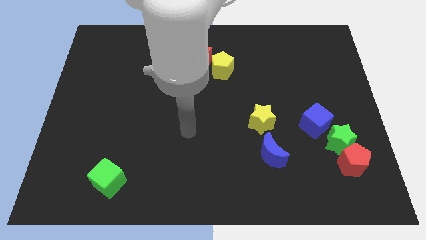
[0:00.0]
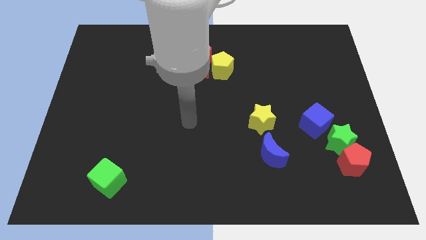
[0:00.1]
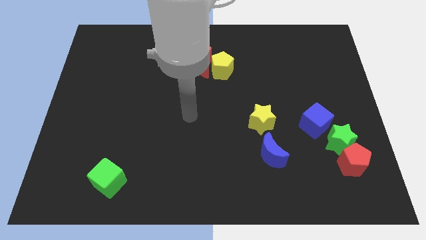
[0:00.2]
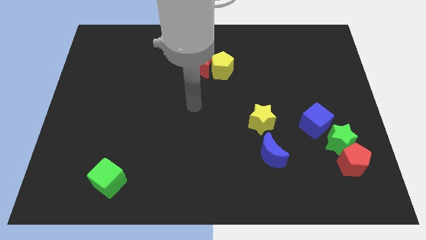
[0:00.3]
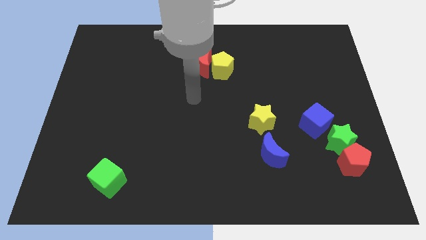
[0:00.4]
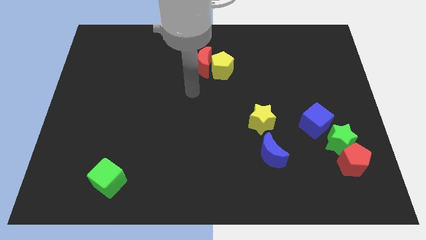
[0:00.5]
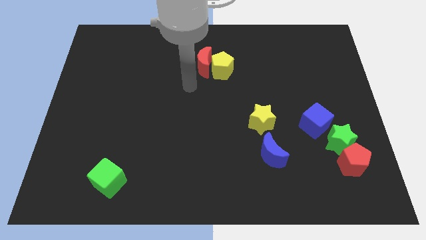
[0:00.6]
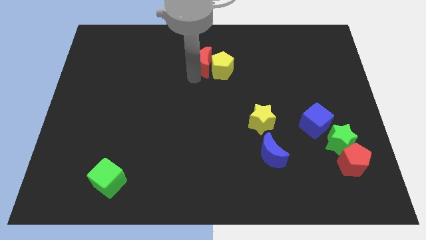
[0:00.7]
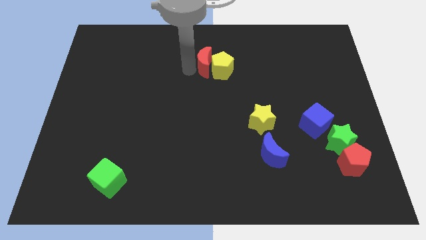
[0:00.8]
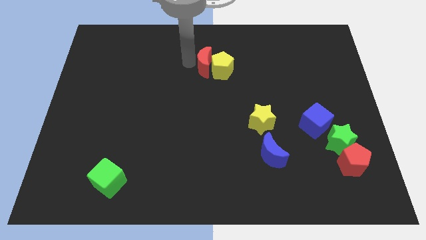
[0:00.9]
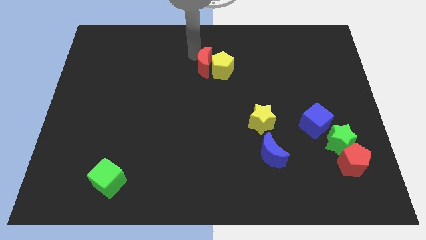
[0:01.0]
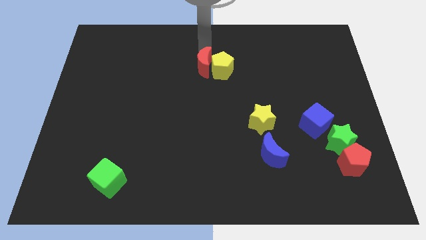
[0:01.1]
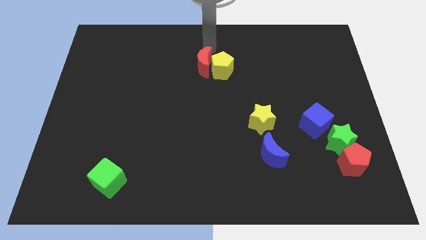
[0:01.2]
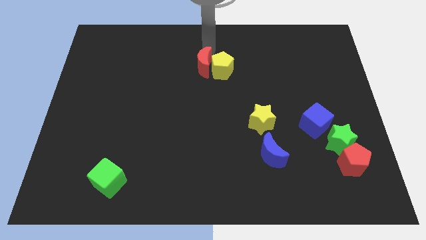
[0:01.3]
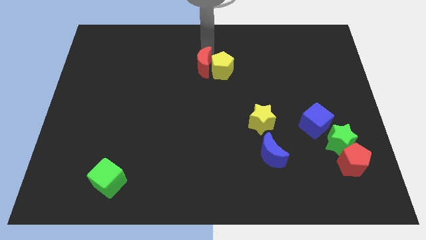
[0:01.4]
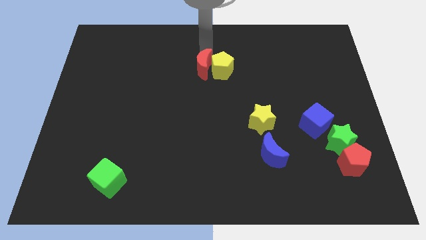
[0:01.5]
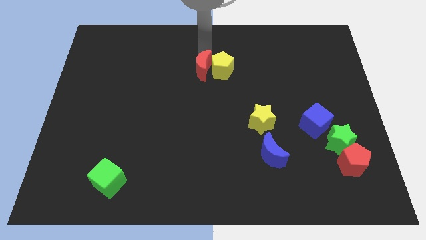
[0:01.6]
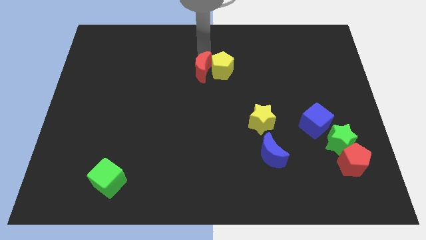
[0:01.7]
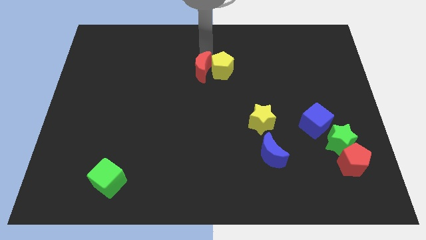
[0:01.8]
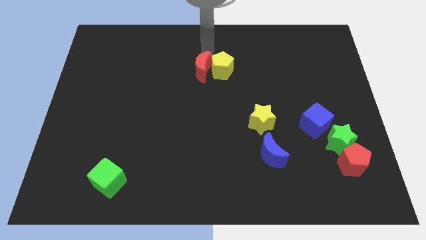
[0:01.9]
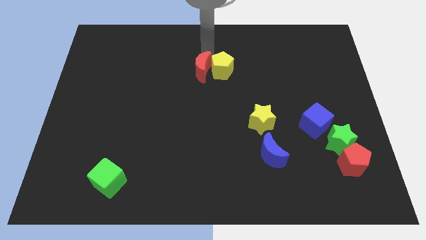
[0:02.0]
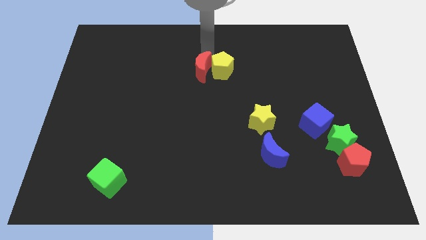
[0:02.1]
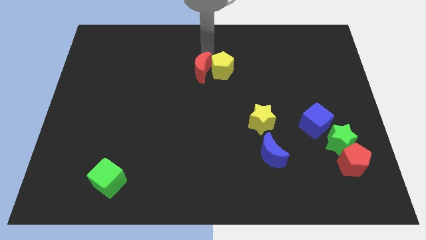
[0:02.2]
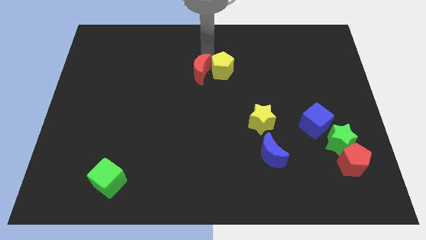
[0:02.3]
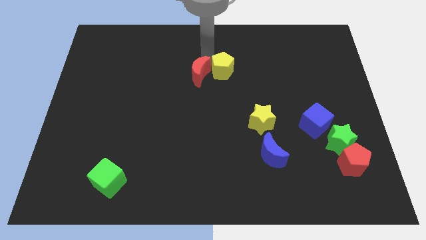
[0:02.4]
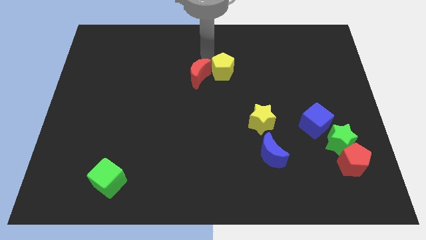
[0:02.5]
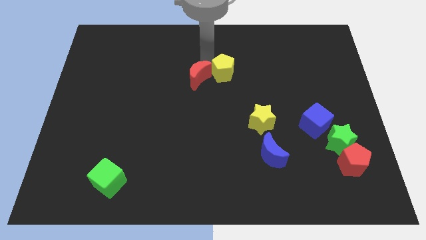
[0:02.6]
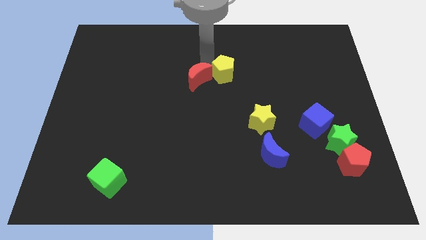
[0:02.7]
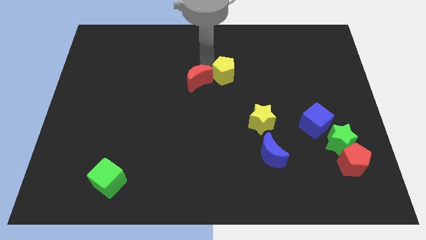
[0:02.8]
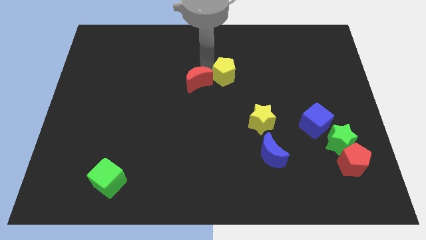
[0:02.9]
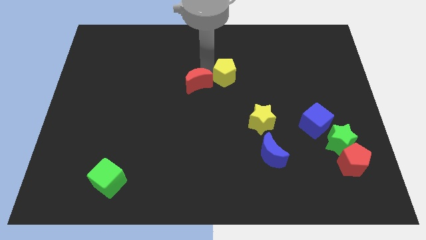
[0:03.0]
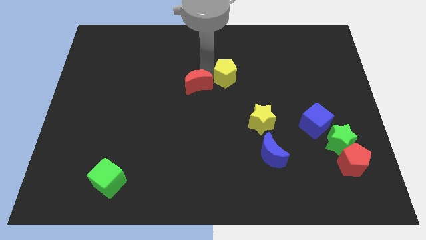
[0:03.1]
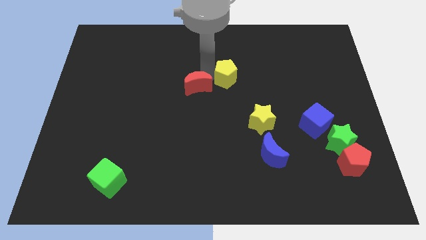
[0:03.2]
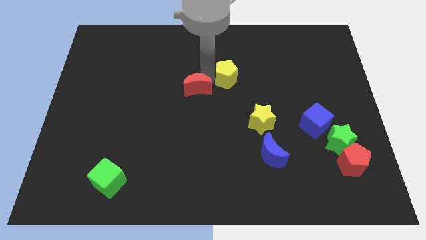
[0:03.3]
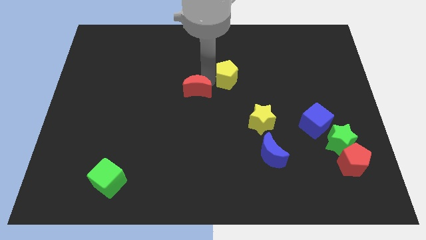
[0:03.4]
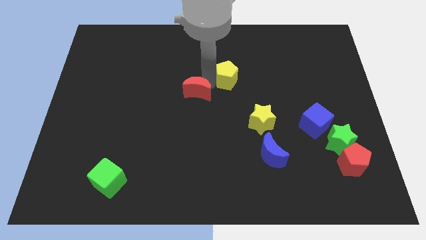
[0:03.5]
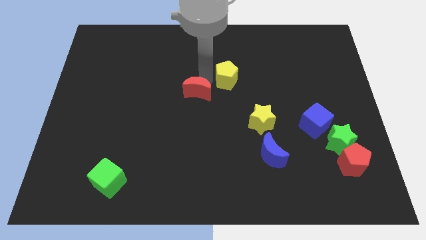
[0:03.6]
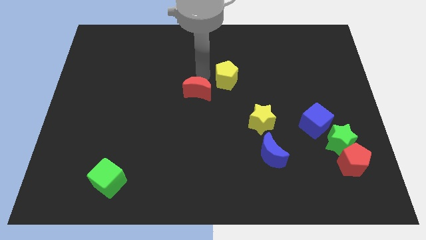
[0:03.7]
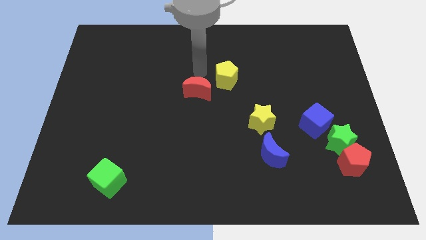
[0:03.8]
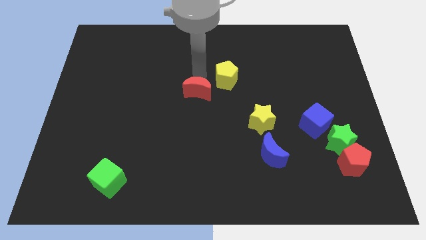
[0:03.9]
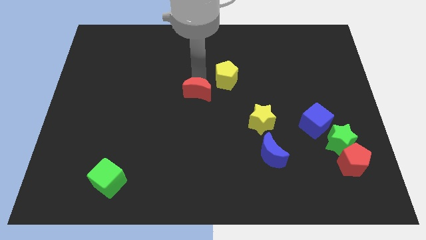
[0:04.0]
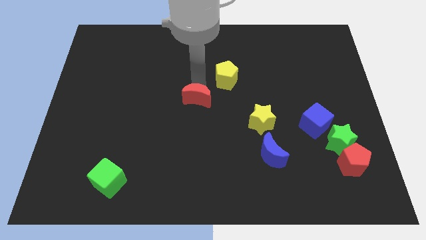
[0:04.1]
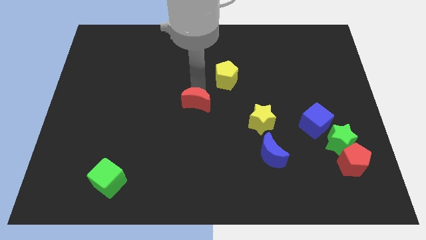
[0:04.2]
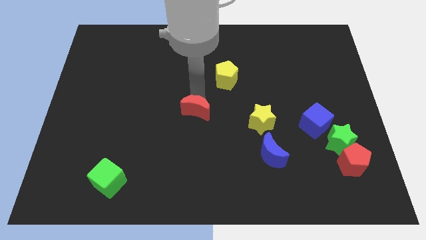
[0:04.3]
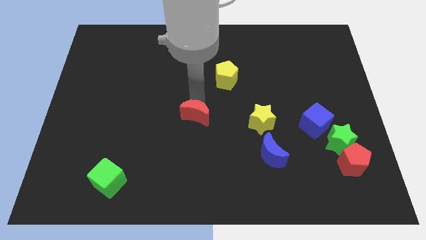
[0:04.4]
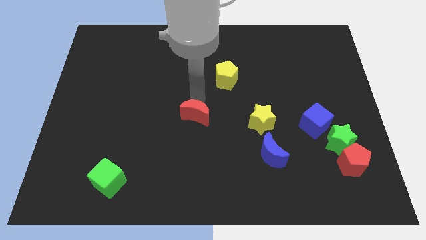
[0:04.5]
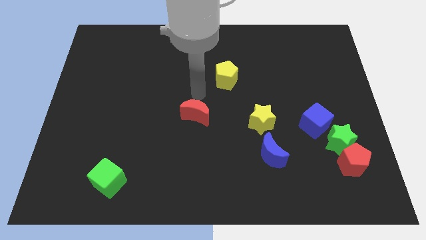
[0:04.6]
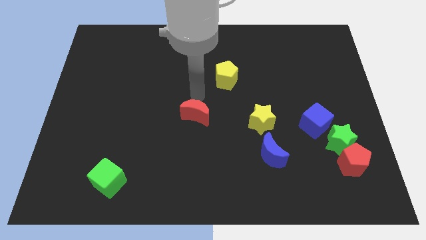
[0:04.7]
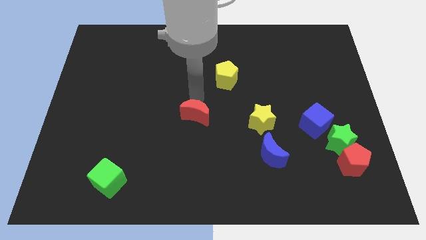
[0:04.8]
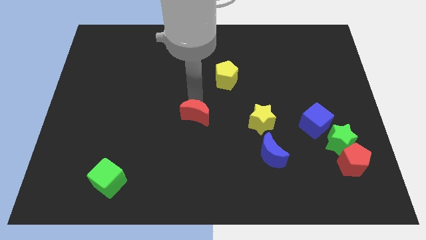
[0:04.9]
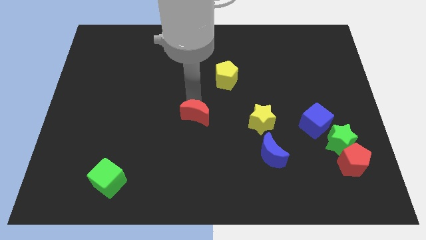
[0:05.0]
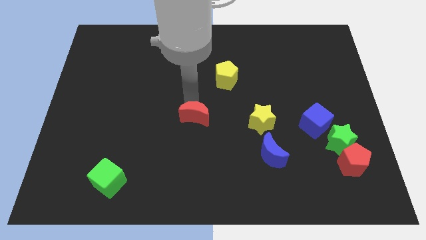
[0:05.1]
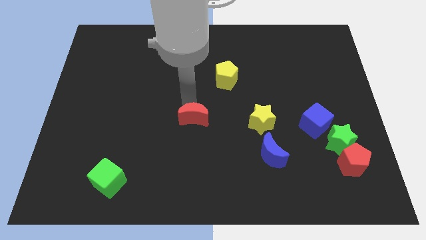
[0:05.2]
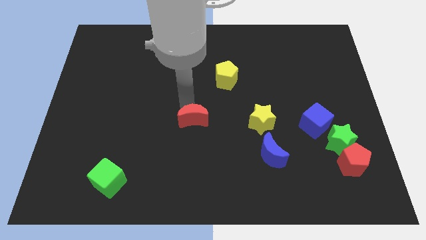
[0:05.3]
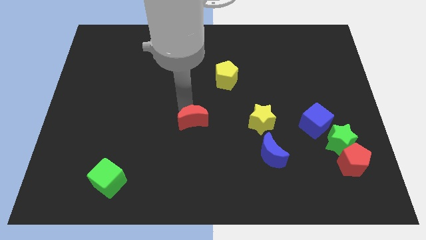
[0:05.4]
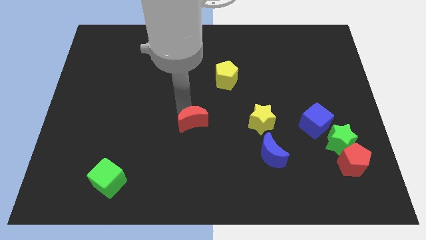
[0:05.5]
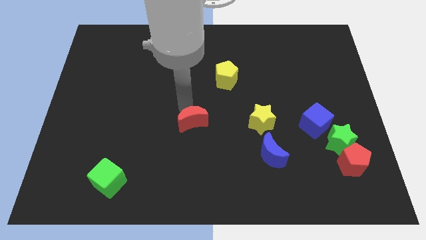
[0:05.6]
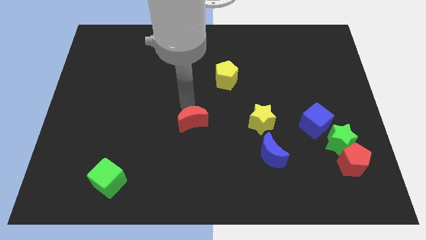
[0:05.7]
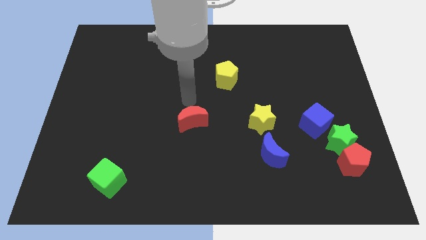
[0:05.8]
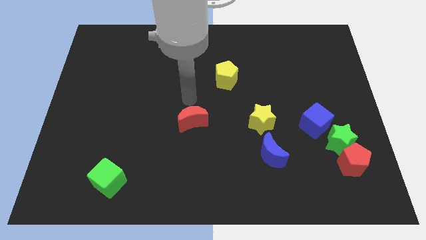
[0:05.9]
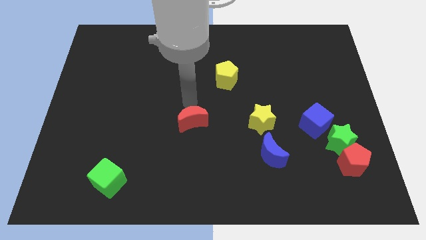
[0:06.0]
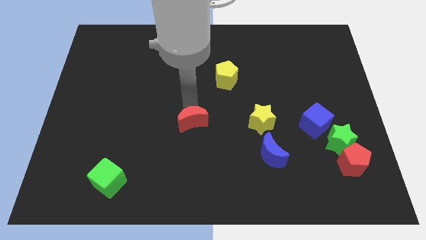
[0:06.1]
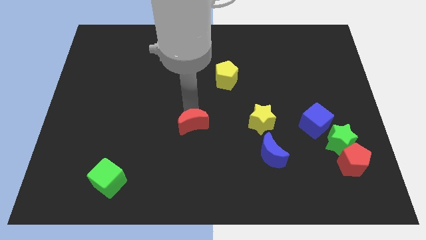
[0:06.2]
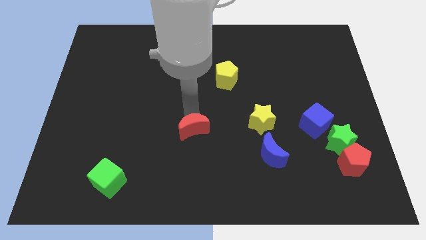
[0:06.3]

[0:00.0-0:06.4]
slide the red moon downwards

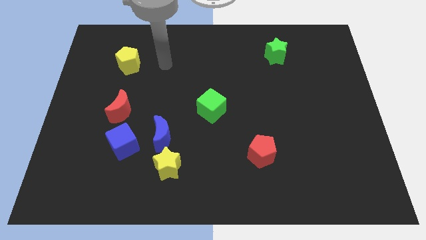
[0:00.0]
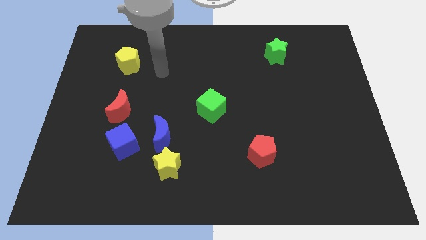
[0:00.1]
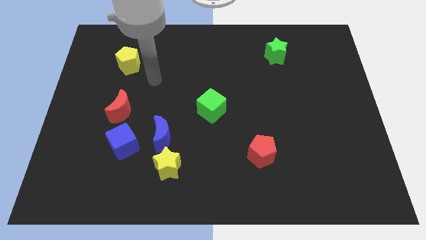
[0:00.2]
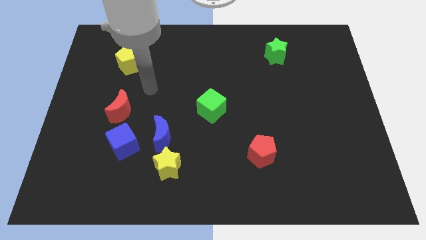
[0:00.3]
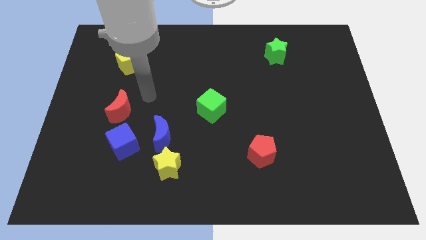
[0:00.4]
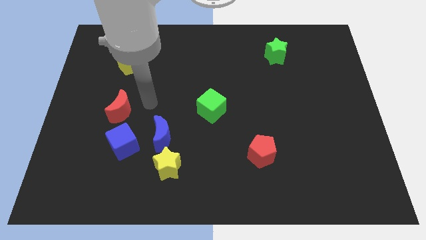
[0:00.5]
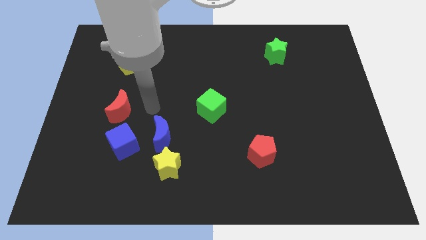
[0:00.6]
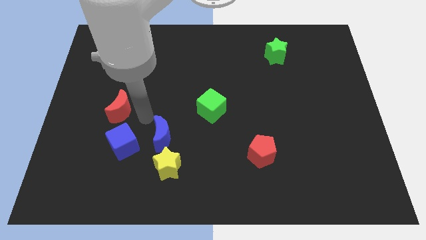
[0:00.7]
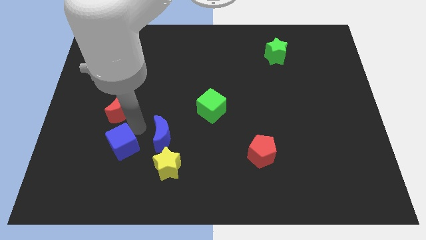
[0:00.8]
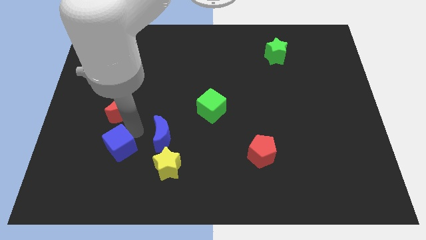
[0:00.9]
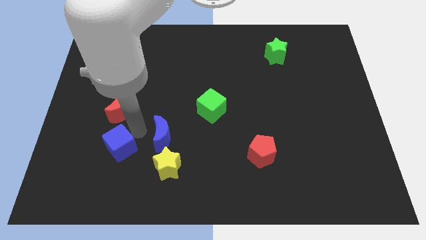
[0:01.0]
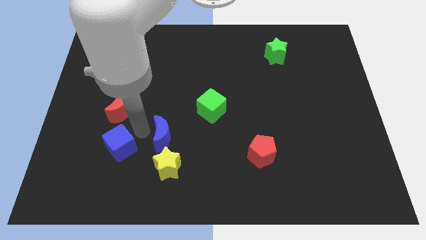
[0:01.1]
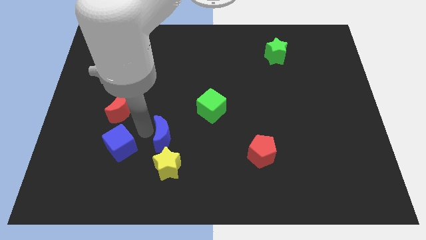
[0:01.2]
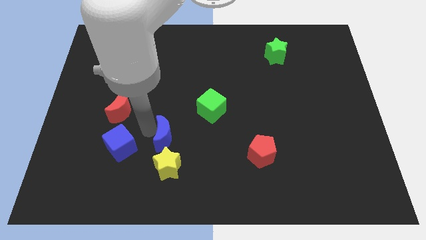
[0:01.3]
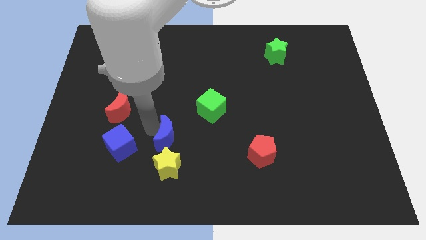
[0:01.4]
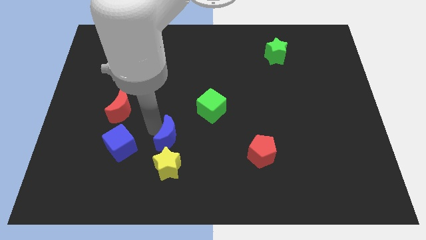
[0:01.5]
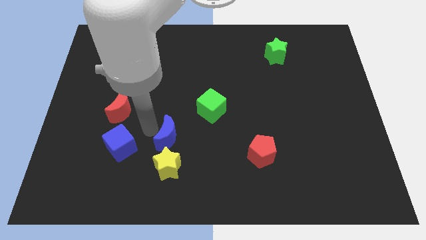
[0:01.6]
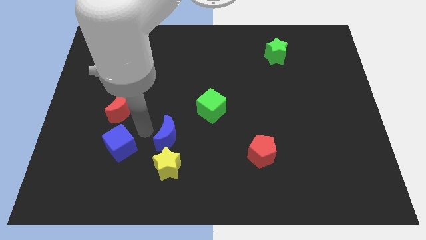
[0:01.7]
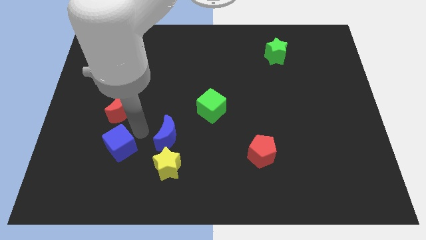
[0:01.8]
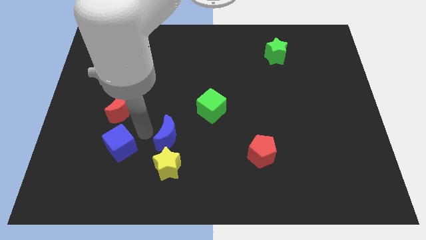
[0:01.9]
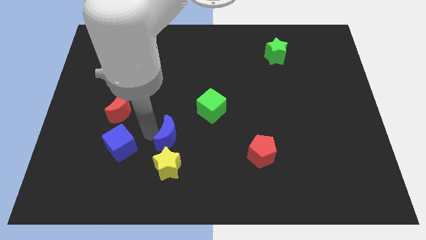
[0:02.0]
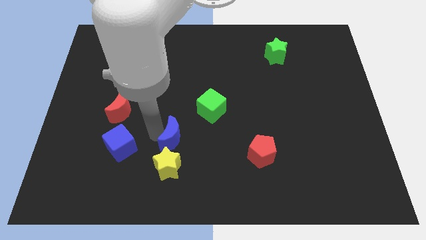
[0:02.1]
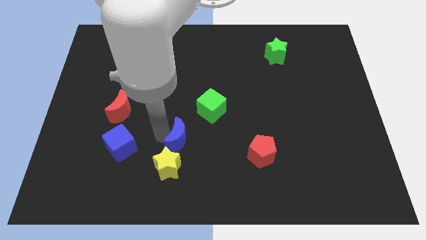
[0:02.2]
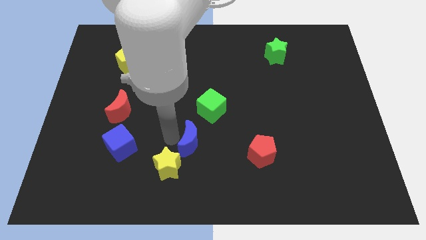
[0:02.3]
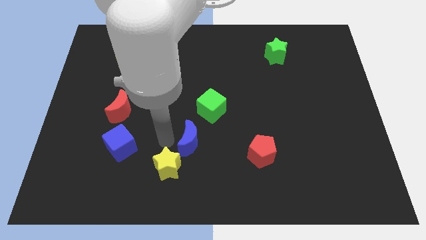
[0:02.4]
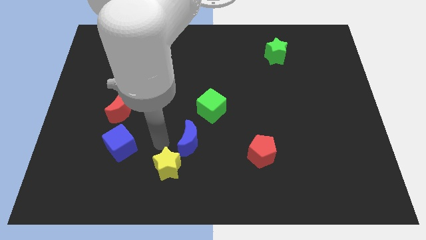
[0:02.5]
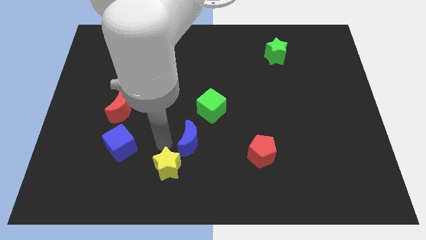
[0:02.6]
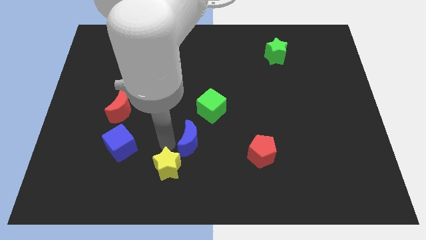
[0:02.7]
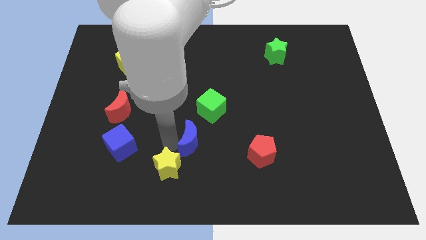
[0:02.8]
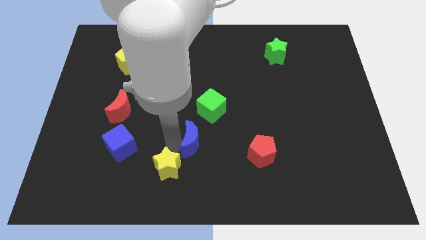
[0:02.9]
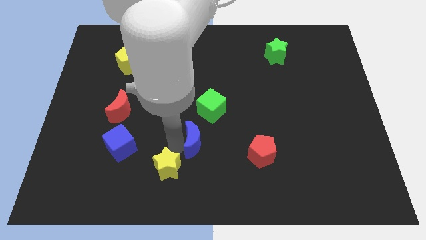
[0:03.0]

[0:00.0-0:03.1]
slide the blue moon to the right a bit
